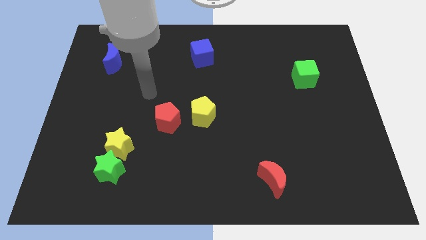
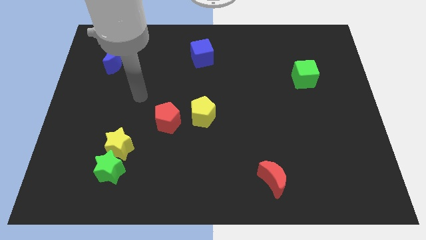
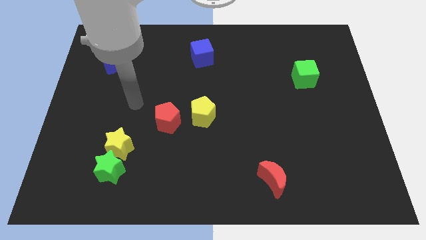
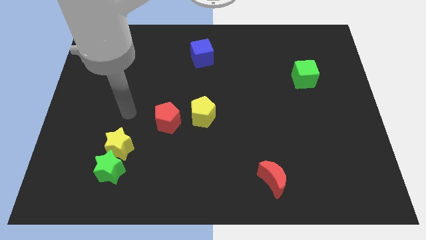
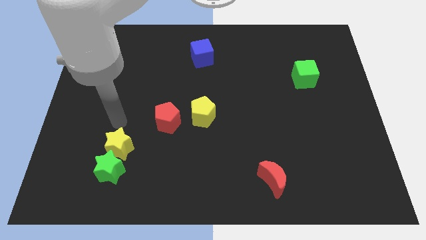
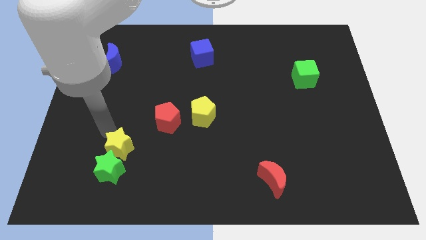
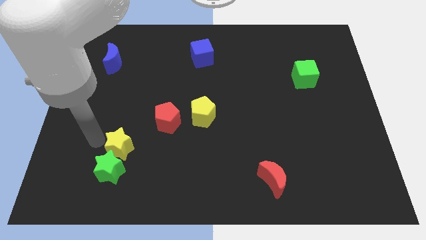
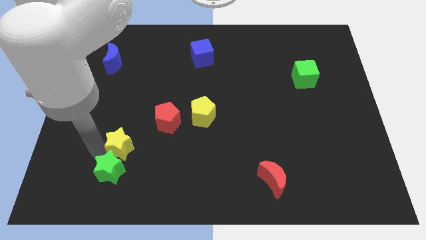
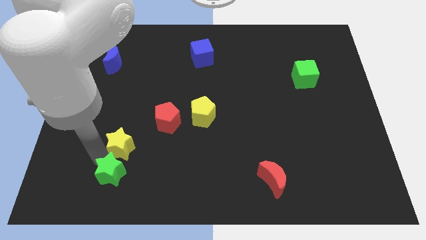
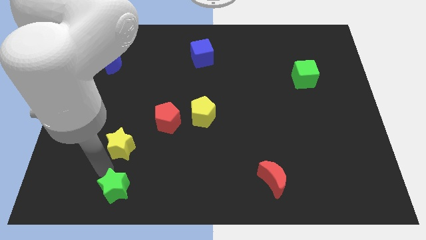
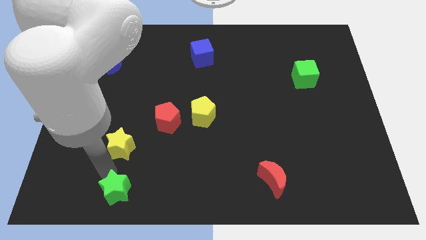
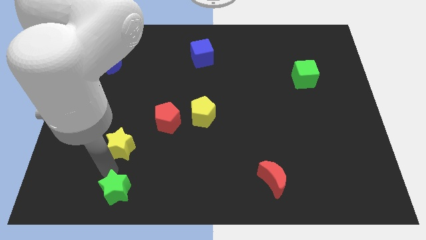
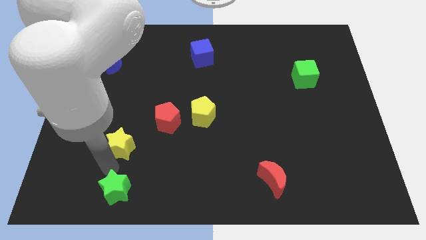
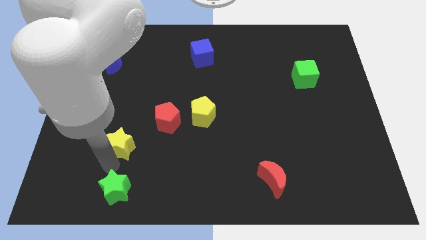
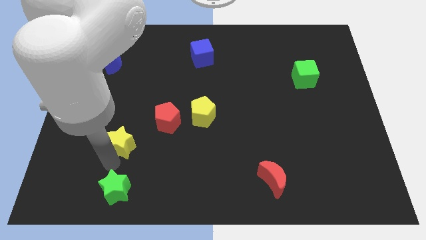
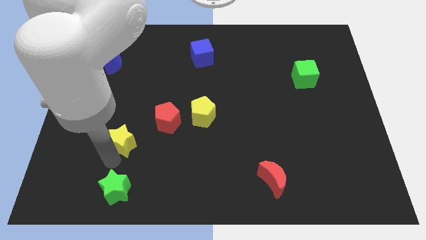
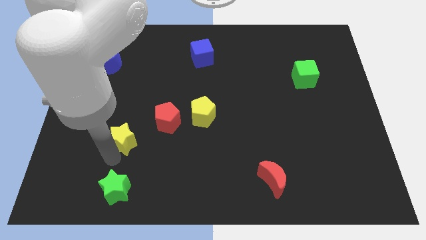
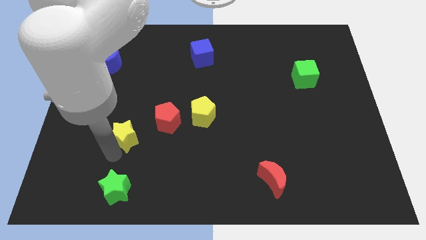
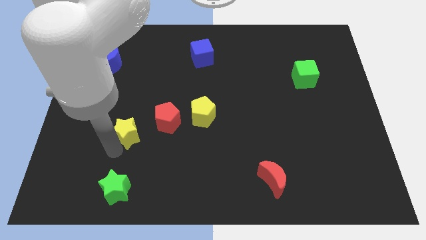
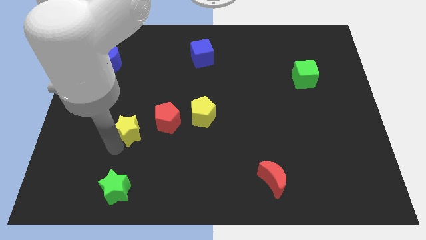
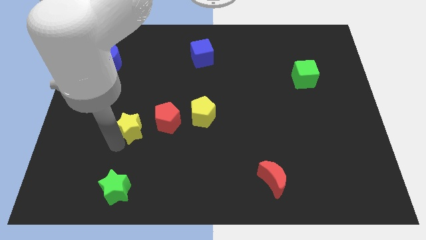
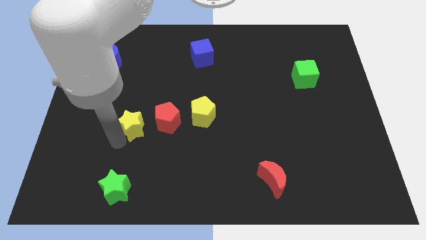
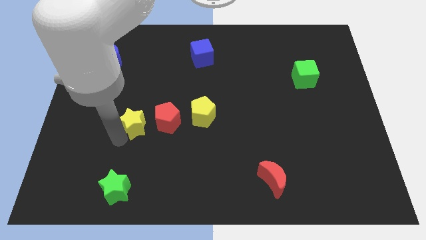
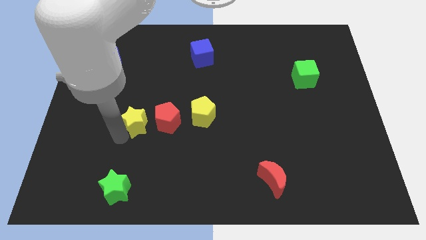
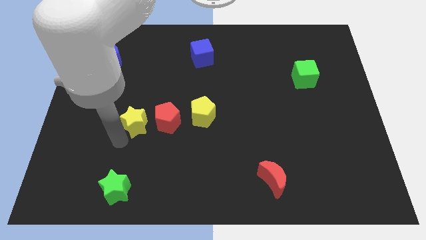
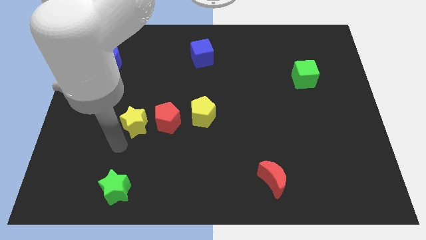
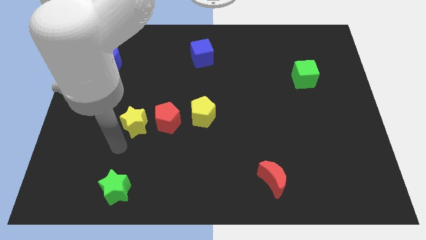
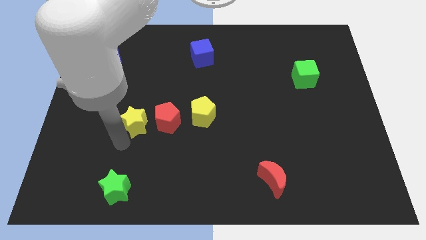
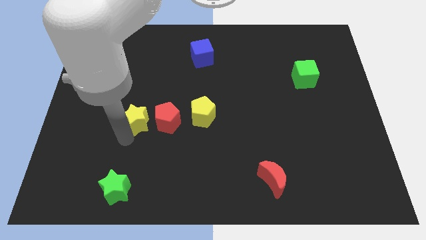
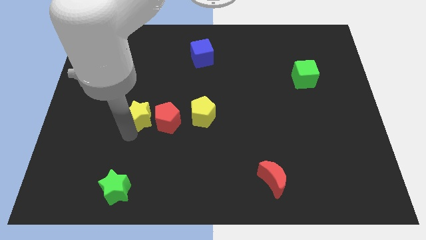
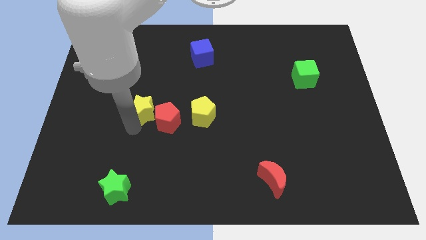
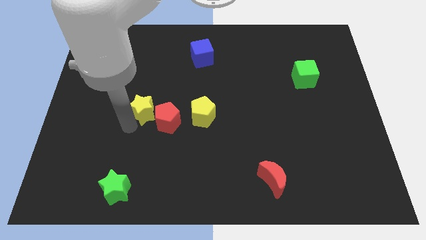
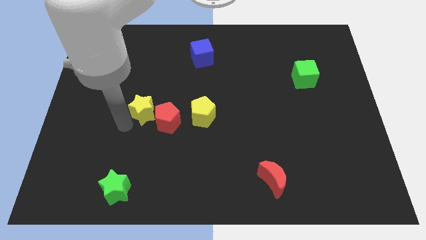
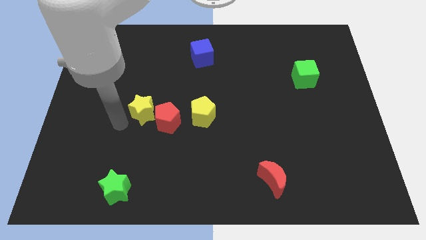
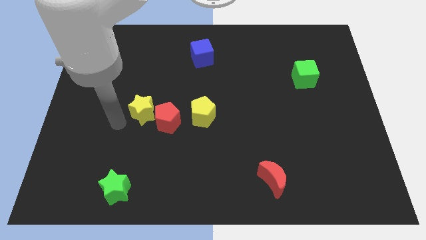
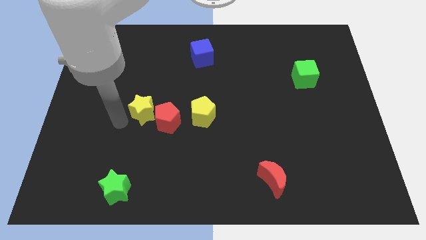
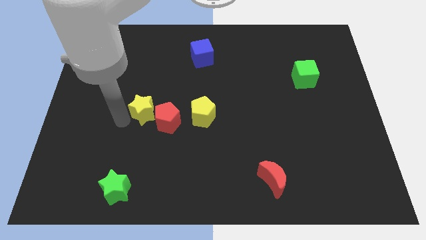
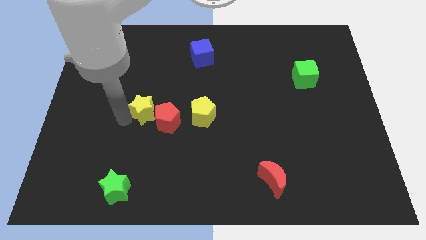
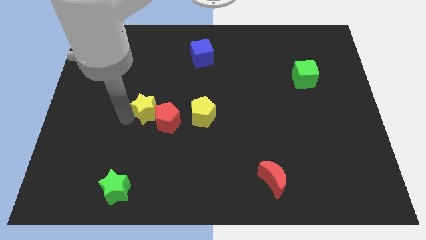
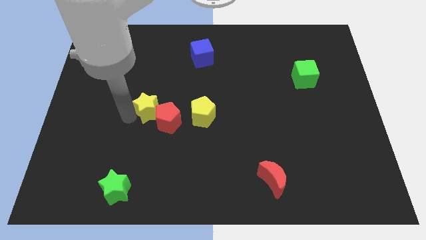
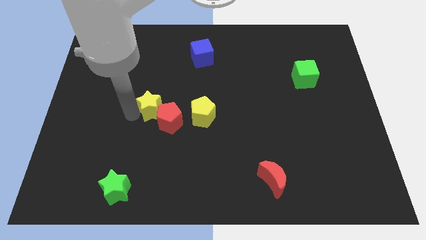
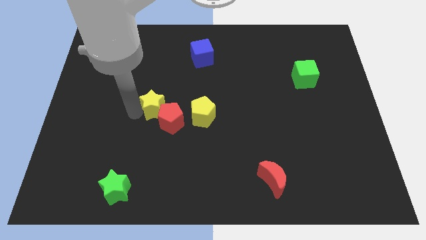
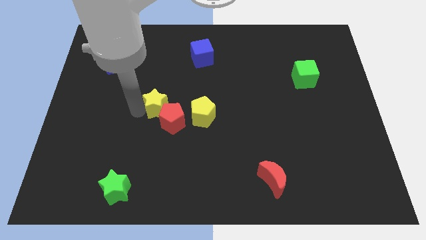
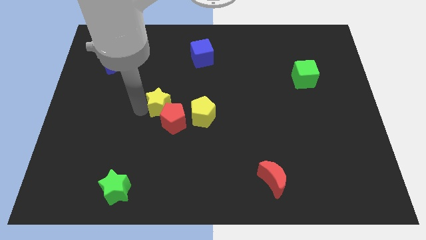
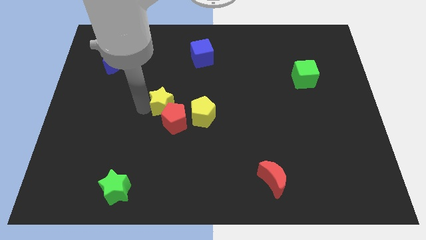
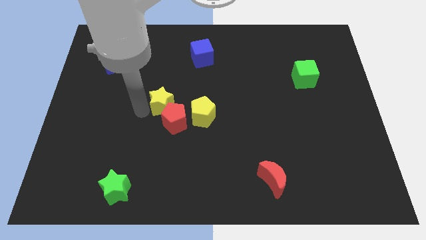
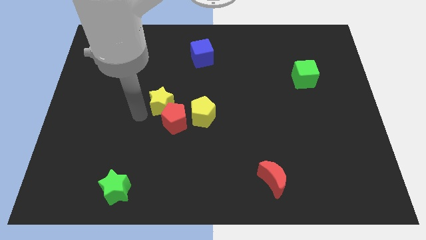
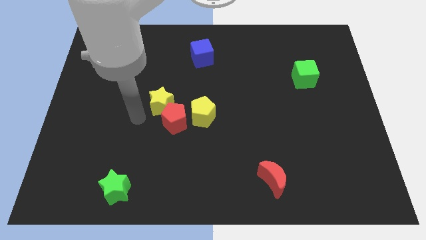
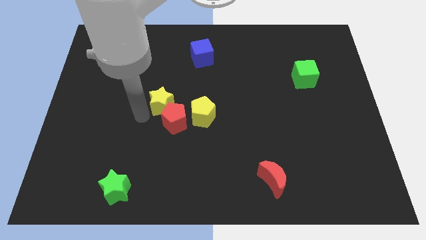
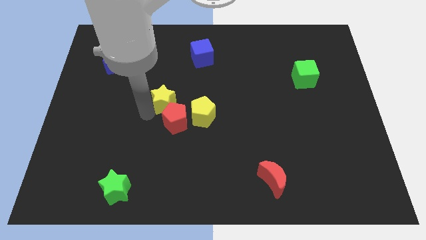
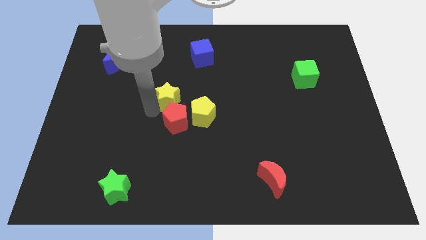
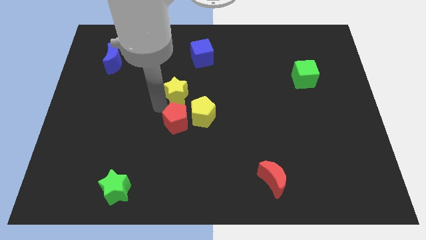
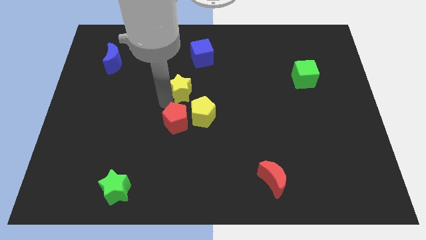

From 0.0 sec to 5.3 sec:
slide the yellow star below the blue cube

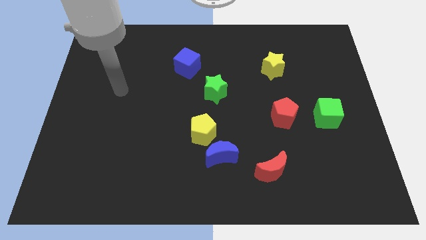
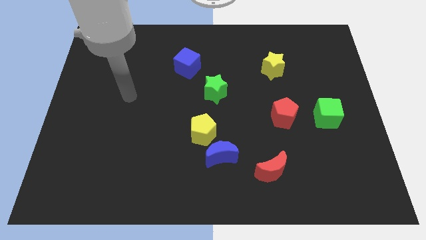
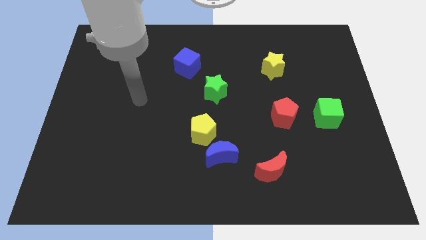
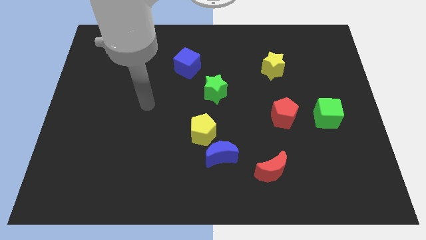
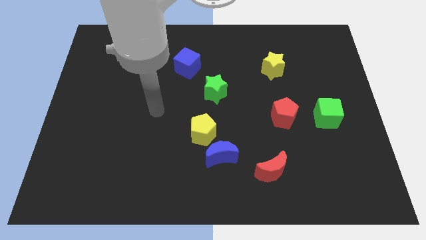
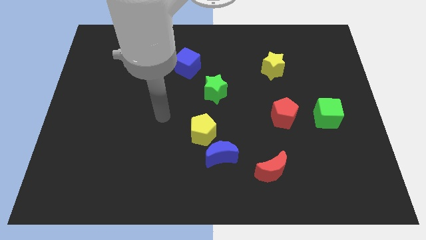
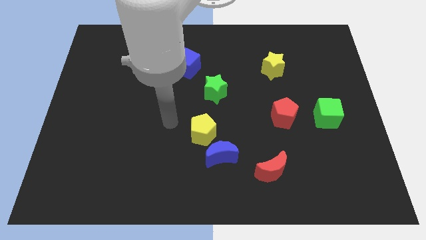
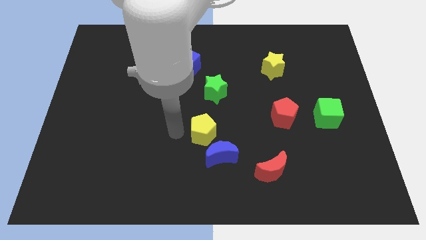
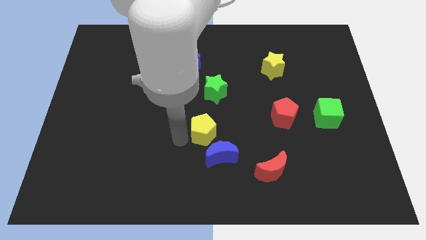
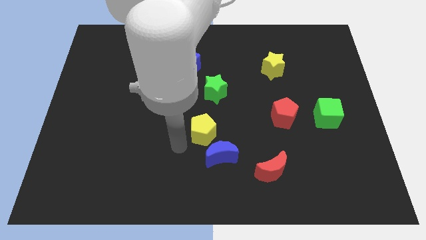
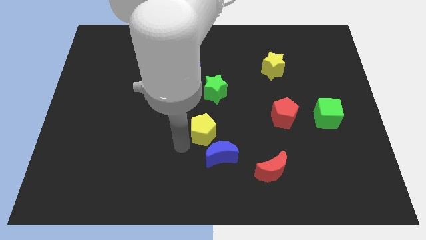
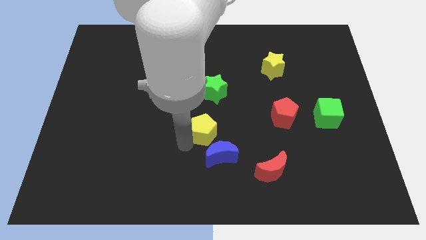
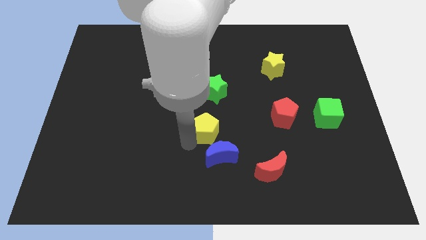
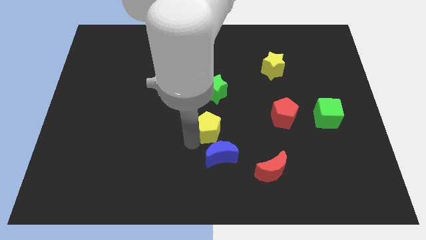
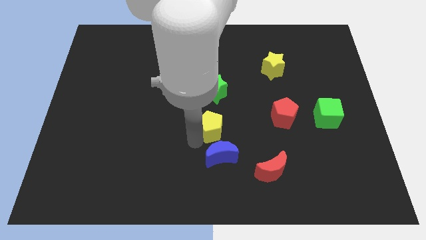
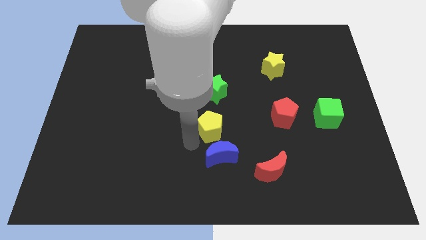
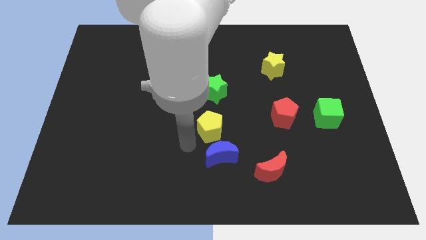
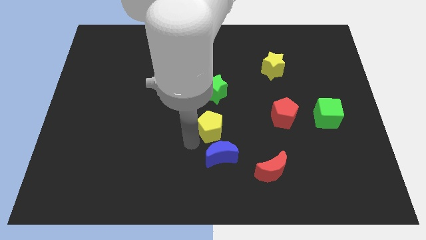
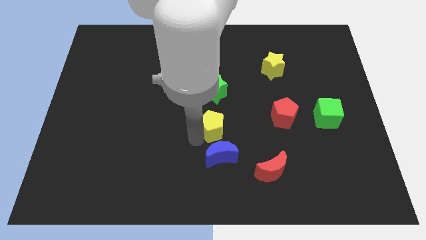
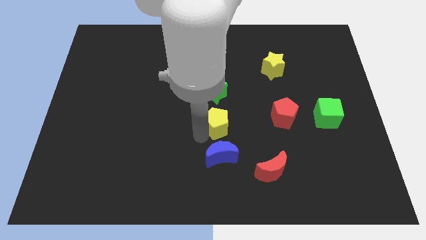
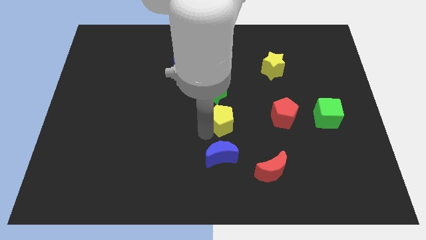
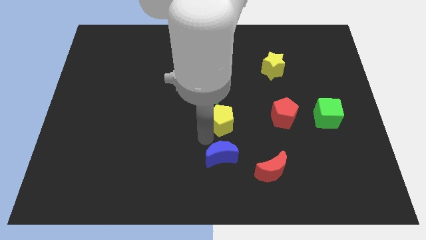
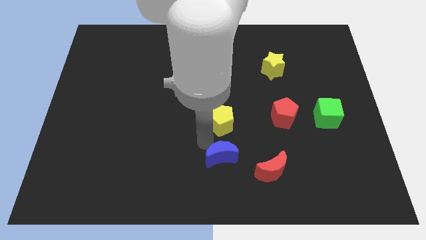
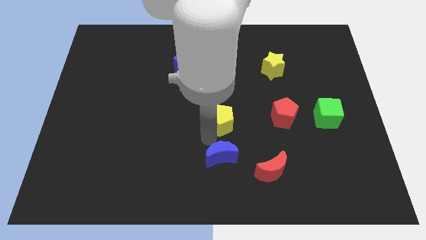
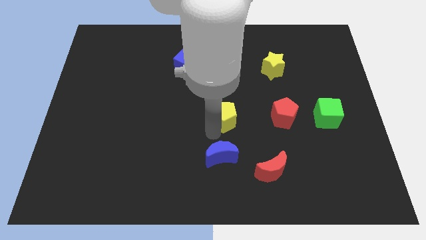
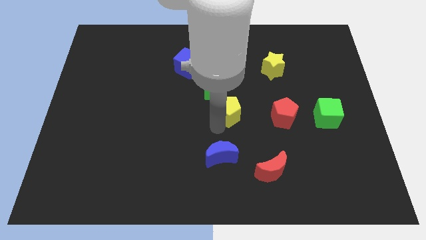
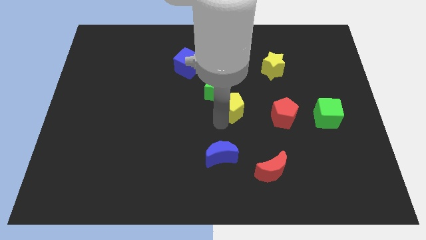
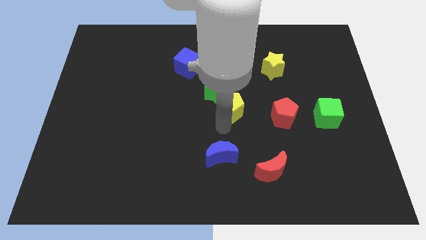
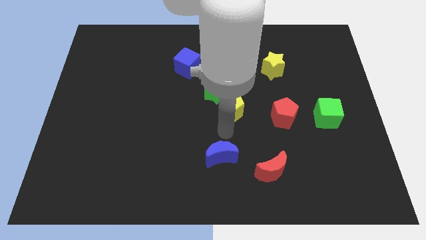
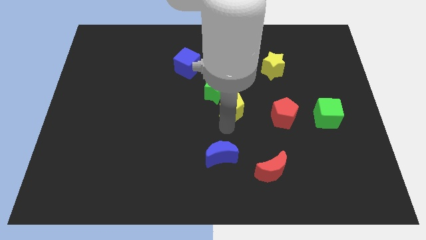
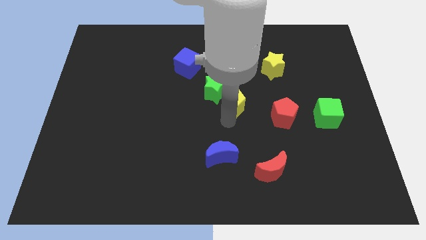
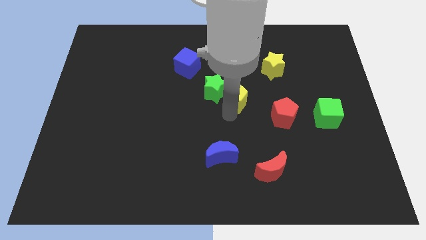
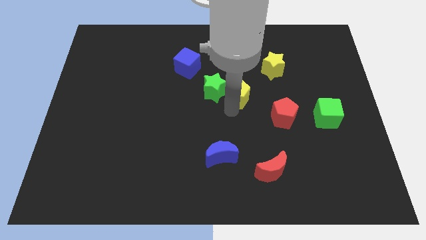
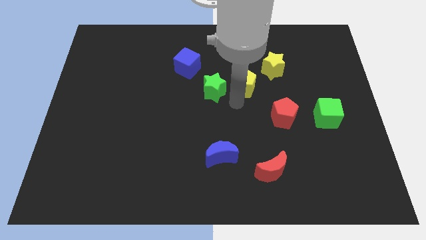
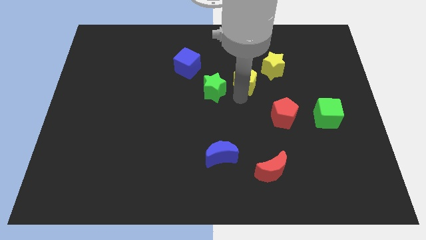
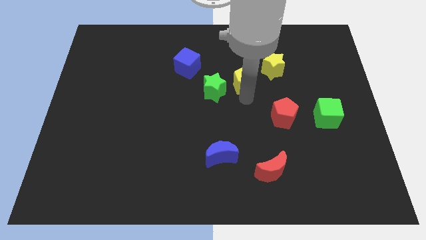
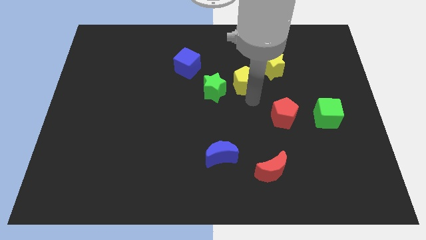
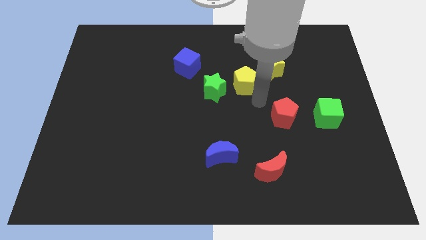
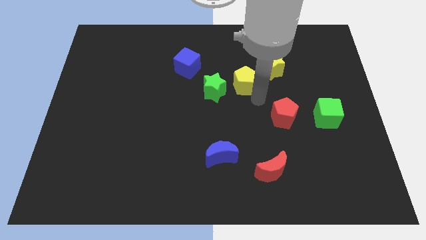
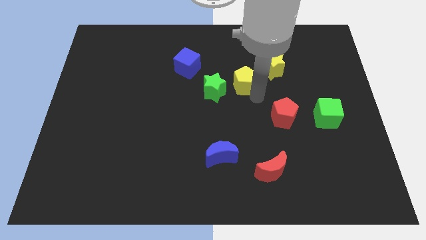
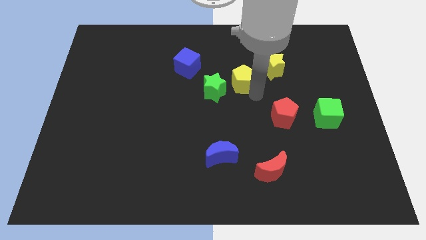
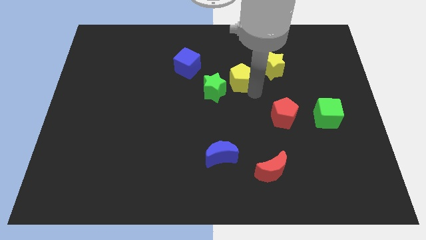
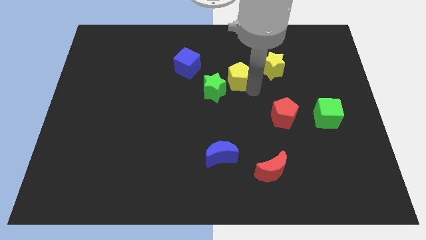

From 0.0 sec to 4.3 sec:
push the yellow pentagon just right of the blue cube
